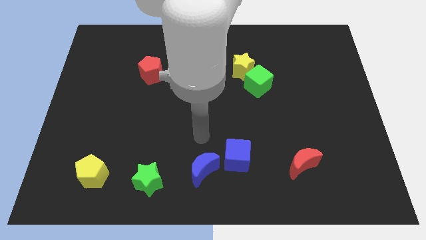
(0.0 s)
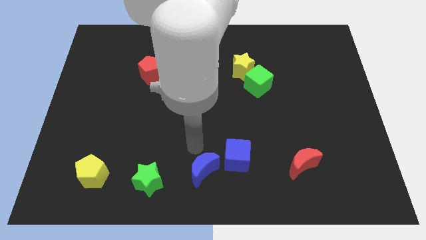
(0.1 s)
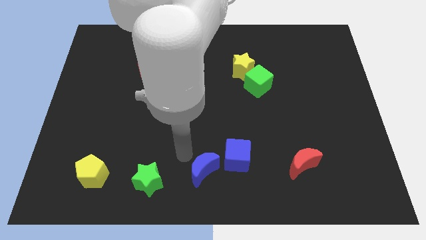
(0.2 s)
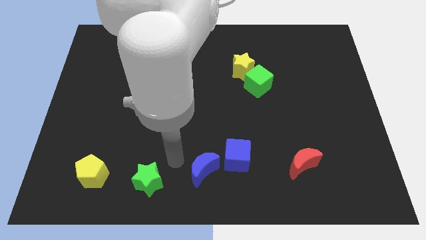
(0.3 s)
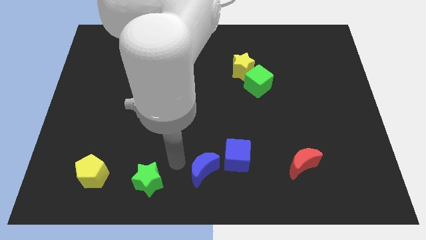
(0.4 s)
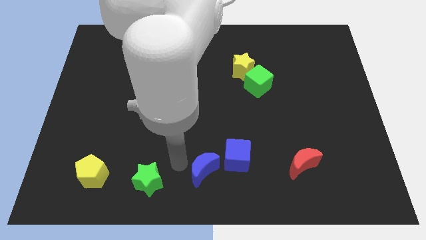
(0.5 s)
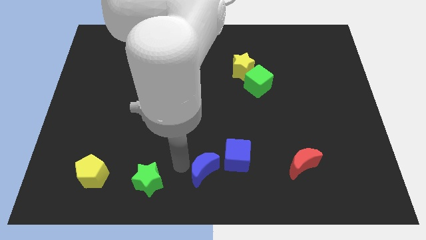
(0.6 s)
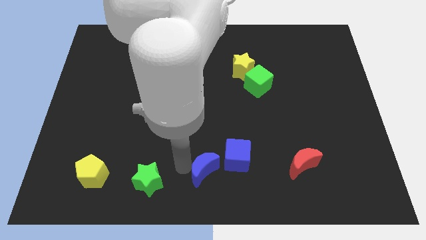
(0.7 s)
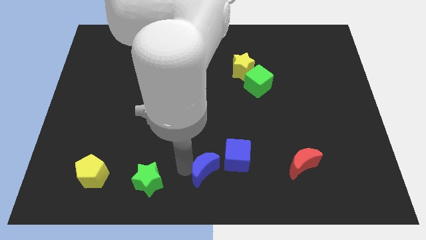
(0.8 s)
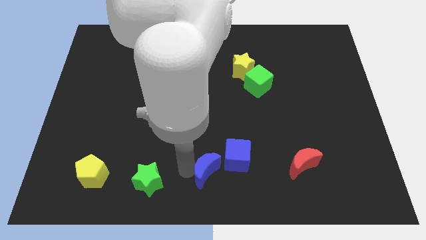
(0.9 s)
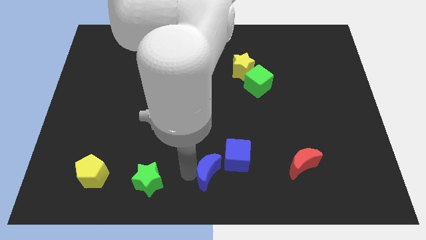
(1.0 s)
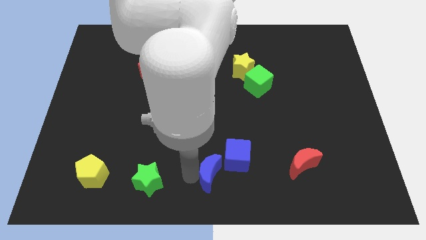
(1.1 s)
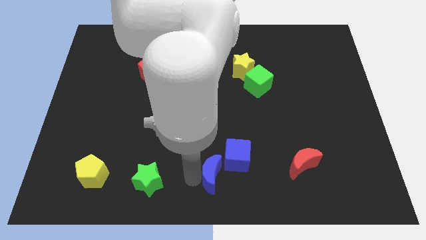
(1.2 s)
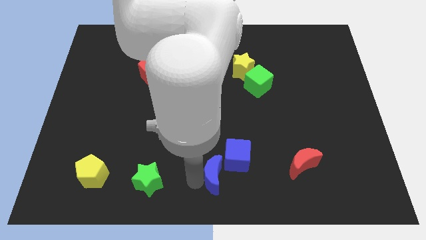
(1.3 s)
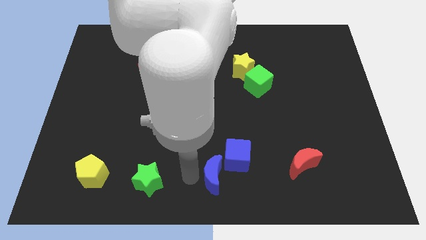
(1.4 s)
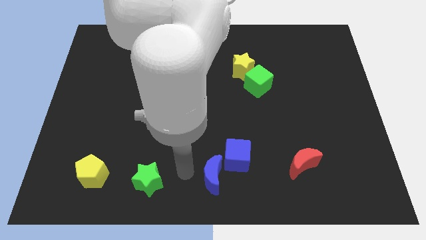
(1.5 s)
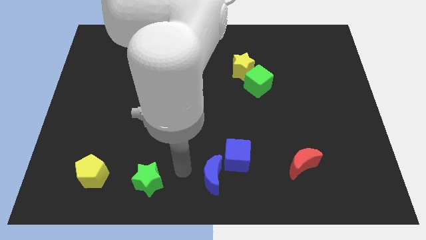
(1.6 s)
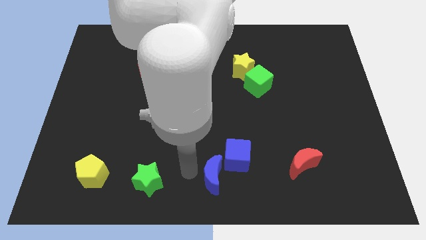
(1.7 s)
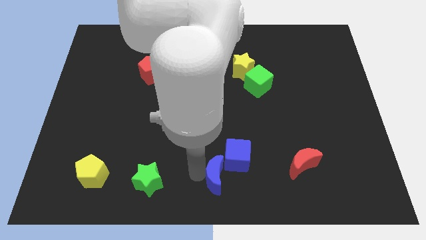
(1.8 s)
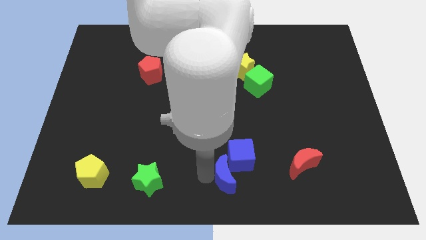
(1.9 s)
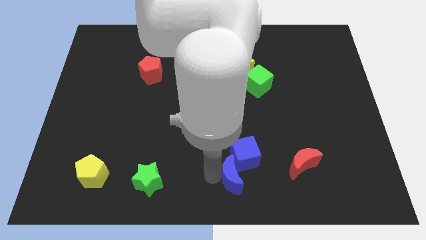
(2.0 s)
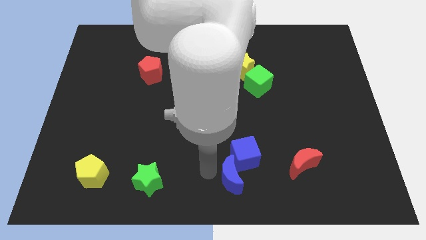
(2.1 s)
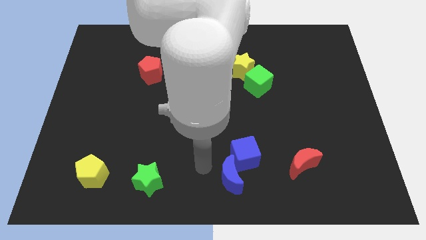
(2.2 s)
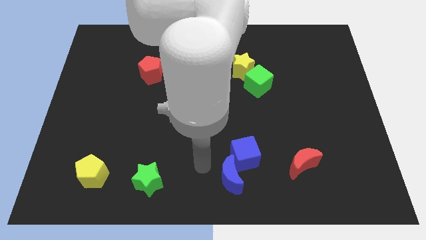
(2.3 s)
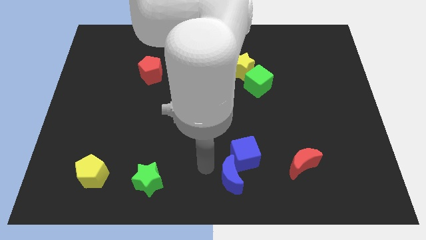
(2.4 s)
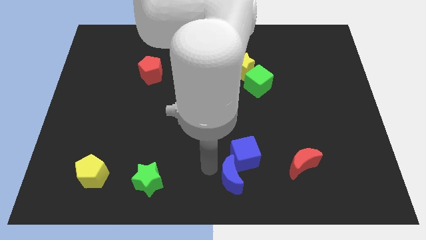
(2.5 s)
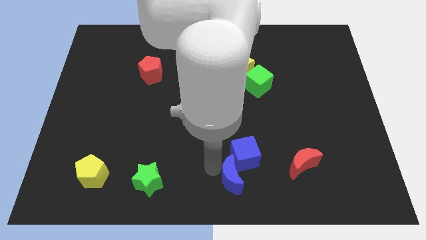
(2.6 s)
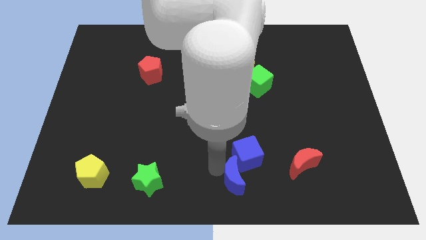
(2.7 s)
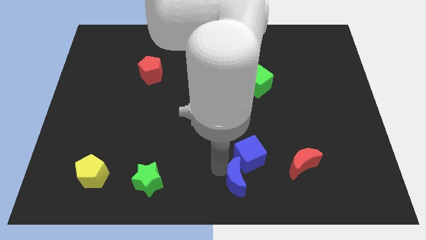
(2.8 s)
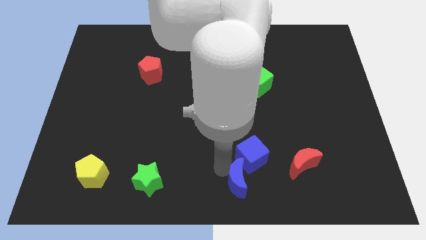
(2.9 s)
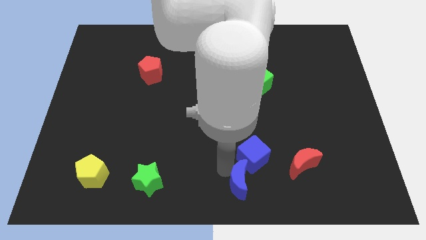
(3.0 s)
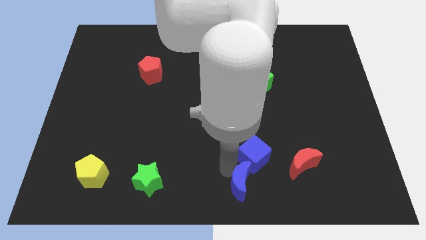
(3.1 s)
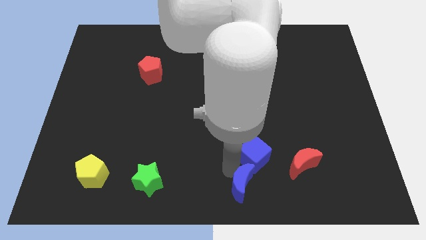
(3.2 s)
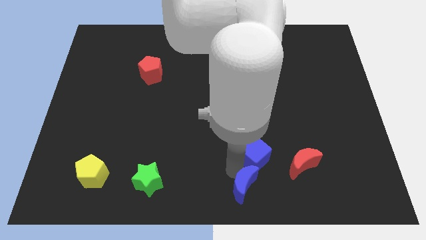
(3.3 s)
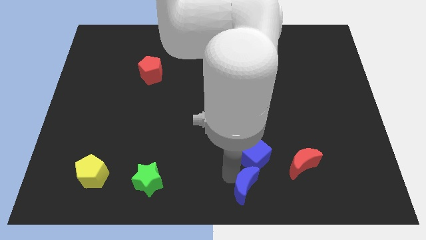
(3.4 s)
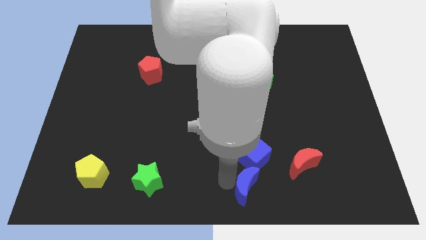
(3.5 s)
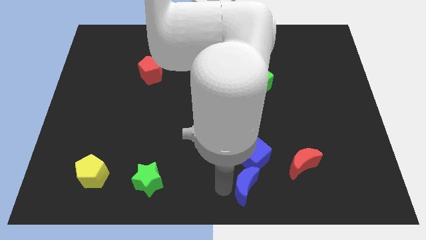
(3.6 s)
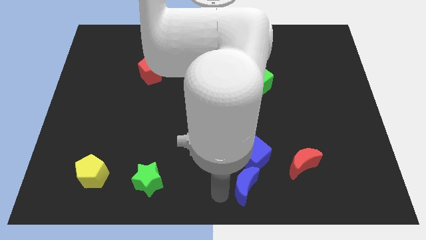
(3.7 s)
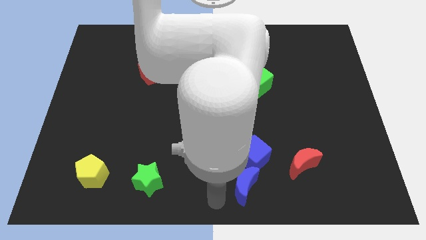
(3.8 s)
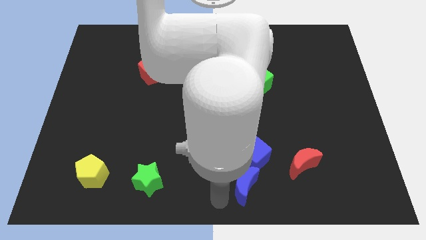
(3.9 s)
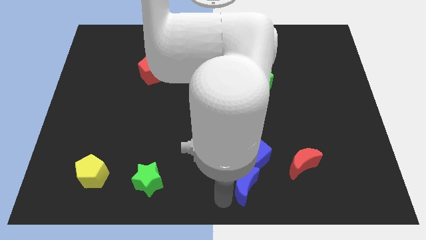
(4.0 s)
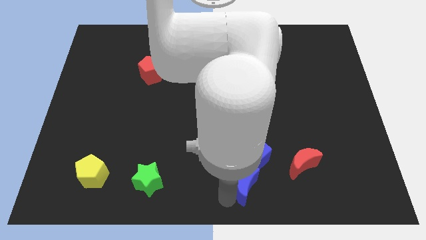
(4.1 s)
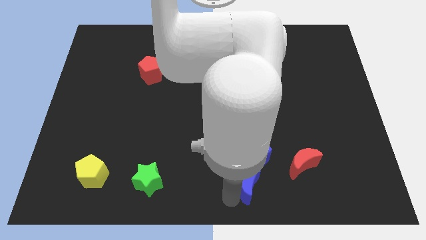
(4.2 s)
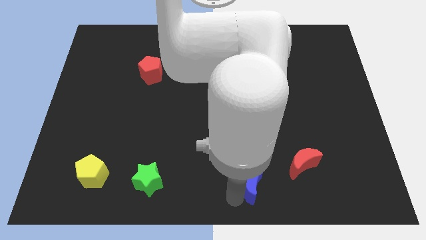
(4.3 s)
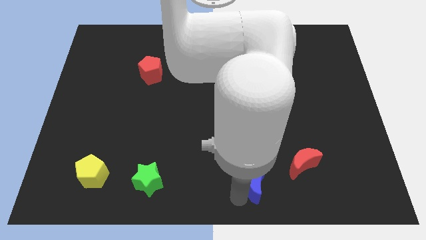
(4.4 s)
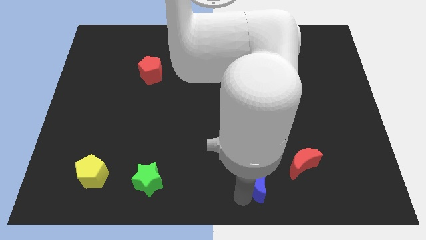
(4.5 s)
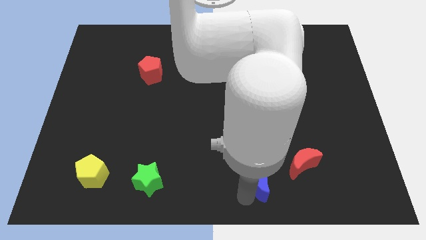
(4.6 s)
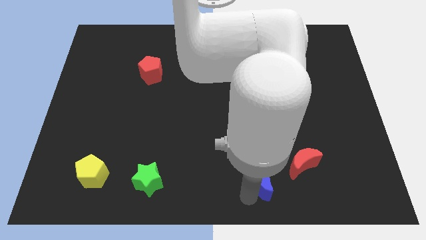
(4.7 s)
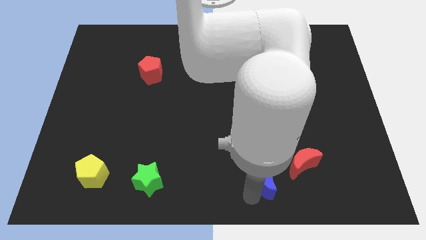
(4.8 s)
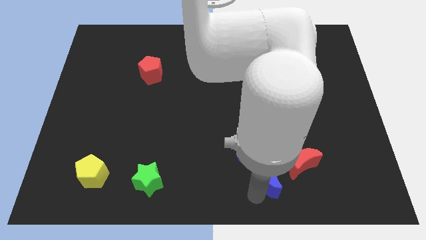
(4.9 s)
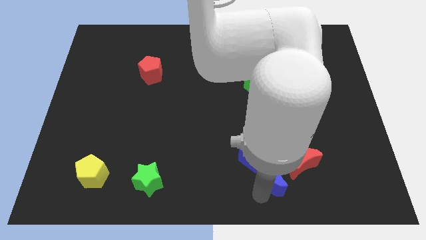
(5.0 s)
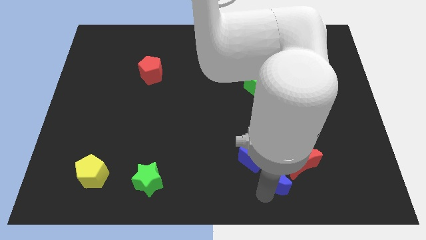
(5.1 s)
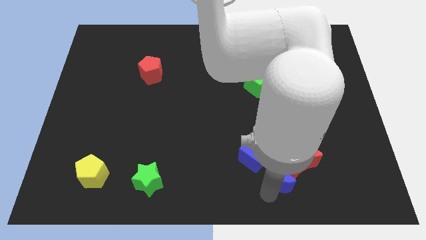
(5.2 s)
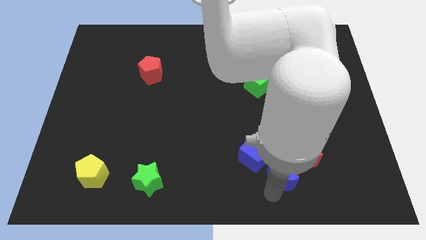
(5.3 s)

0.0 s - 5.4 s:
push the blue moon towards the red moon

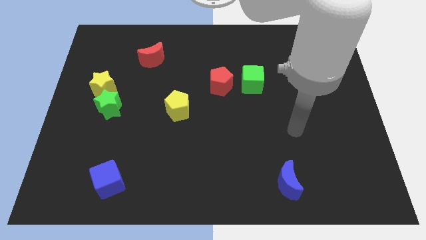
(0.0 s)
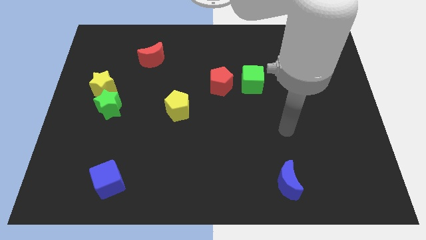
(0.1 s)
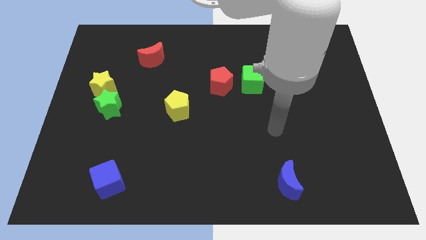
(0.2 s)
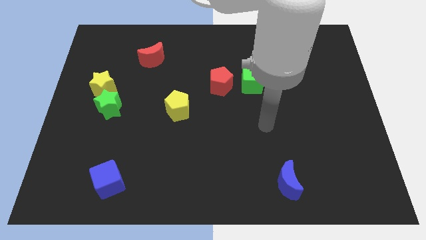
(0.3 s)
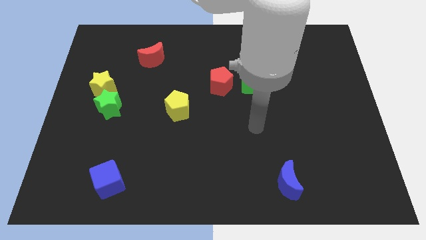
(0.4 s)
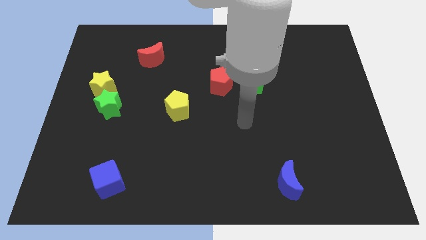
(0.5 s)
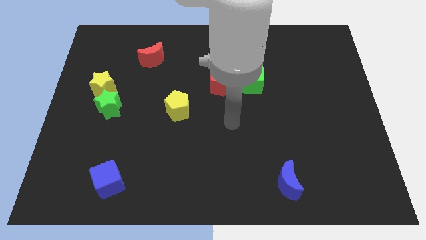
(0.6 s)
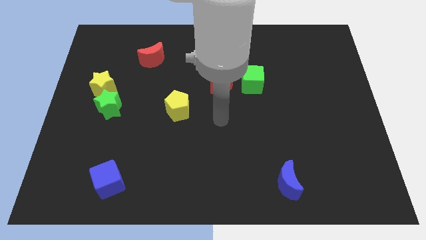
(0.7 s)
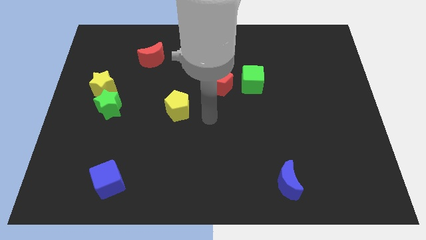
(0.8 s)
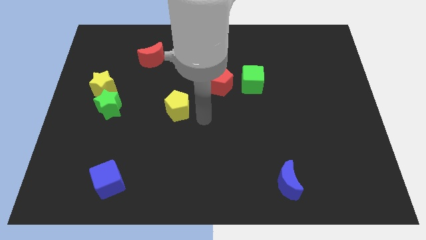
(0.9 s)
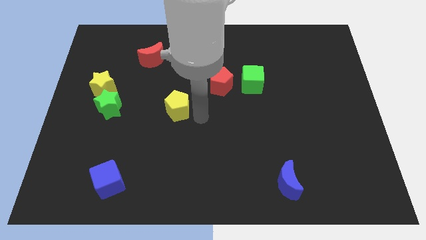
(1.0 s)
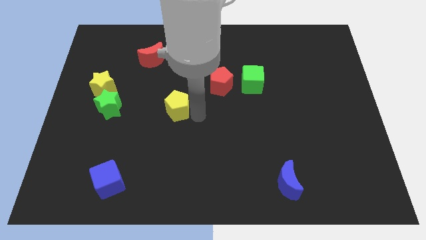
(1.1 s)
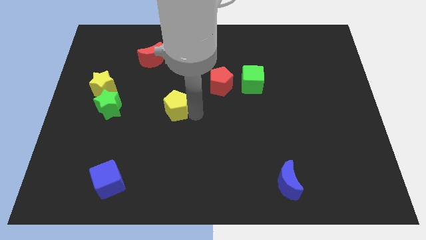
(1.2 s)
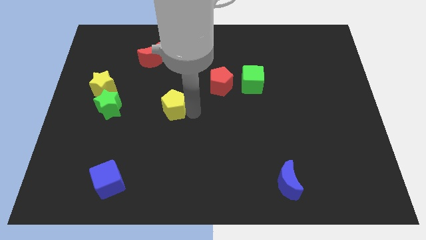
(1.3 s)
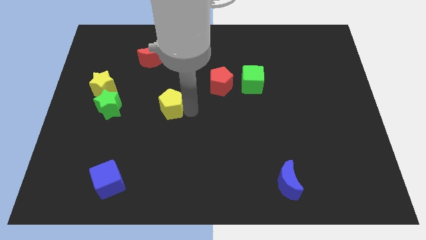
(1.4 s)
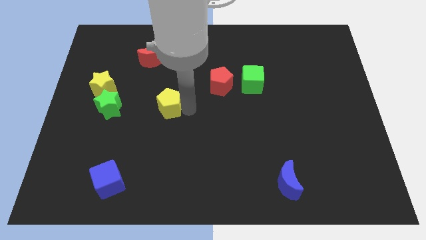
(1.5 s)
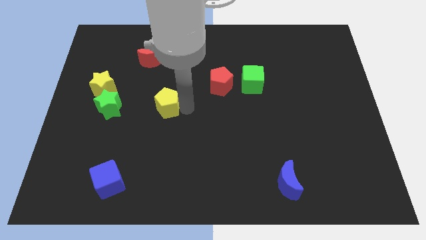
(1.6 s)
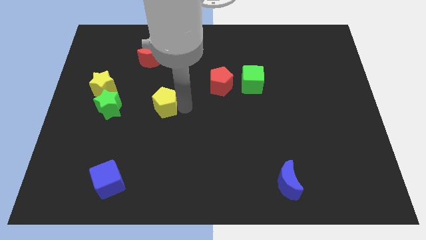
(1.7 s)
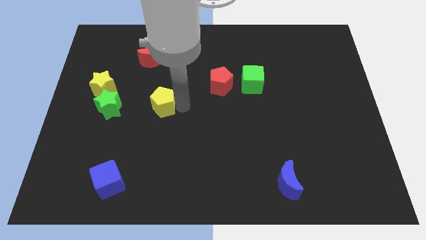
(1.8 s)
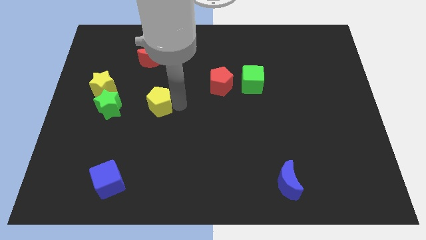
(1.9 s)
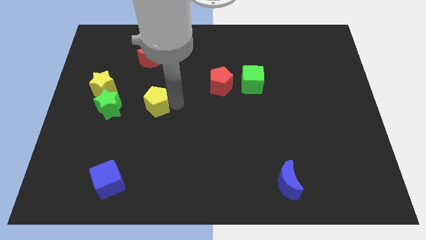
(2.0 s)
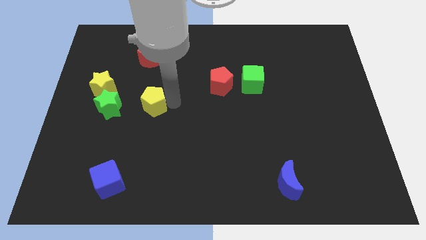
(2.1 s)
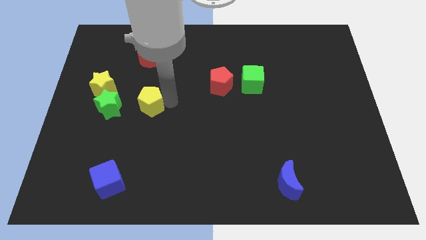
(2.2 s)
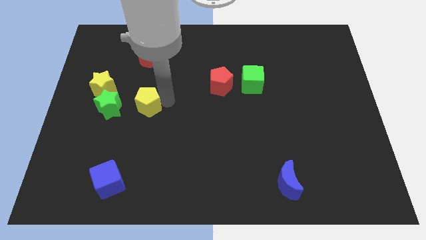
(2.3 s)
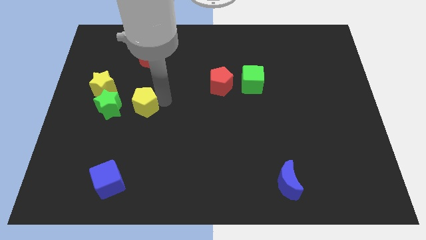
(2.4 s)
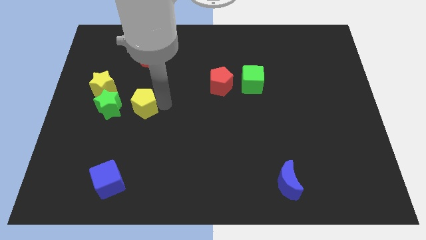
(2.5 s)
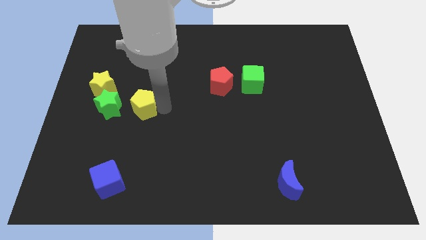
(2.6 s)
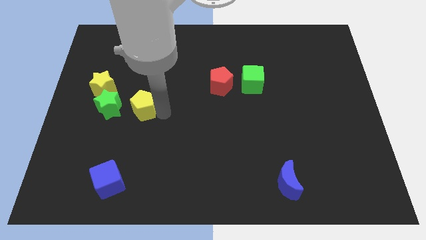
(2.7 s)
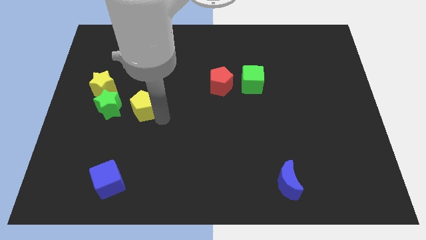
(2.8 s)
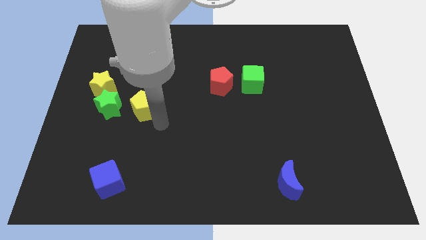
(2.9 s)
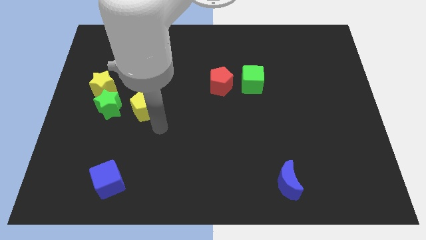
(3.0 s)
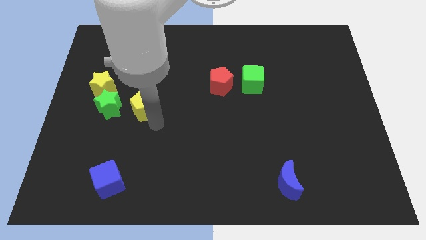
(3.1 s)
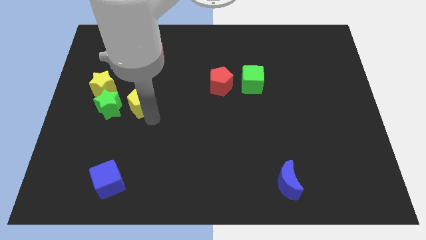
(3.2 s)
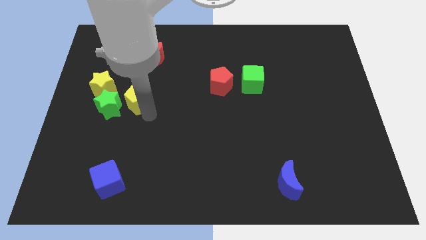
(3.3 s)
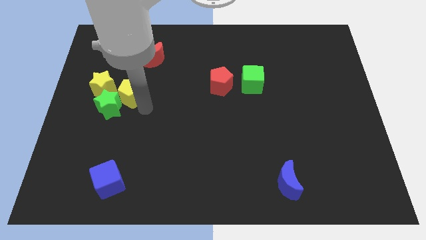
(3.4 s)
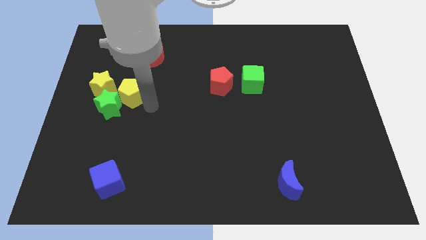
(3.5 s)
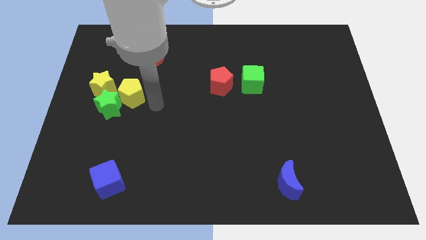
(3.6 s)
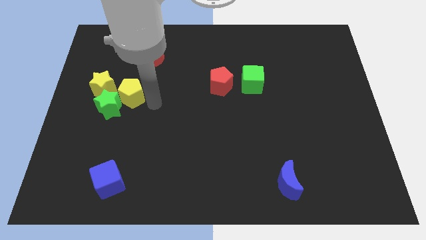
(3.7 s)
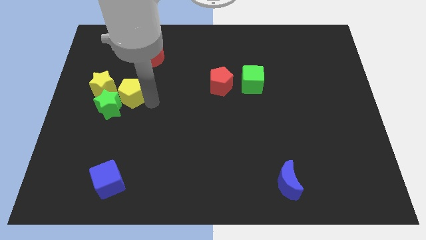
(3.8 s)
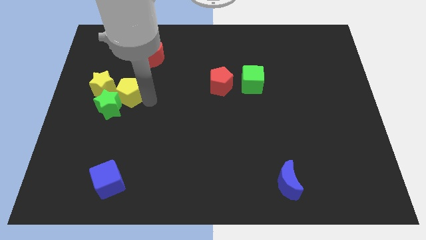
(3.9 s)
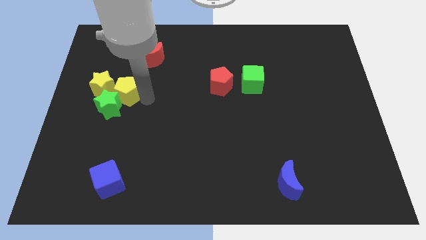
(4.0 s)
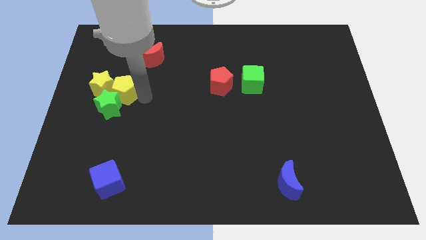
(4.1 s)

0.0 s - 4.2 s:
slide the yellow pentagon to the yellow star
